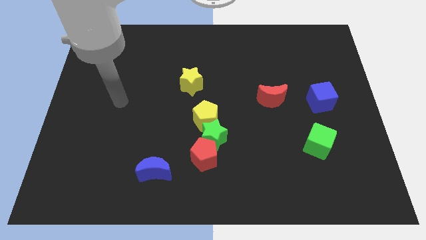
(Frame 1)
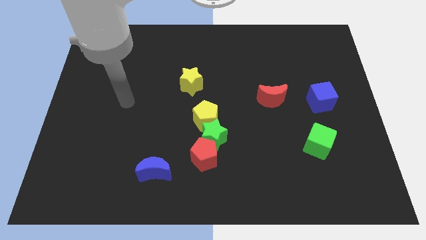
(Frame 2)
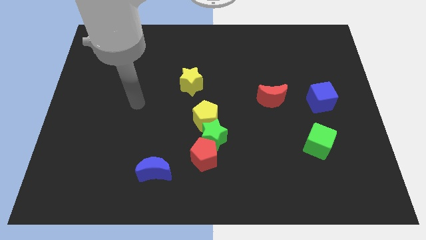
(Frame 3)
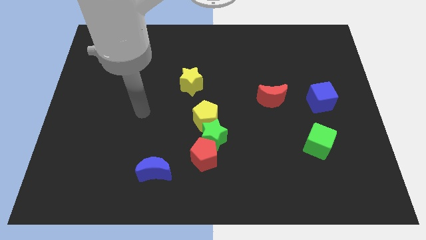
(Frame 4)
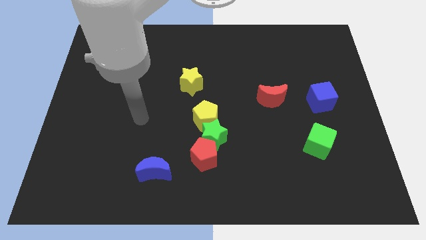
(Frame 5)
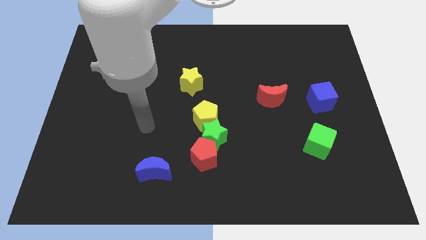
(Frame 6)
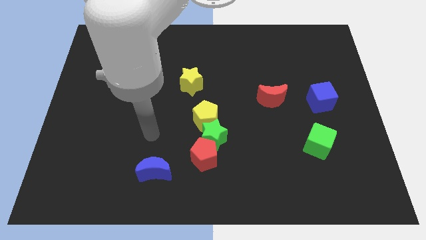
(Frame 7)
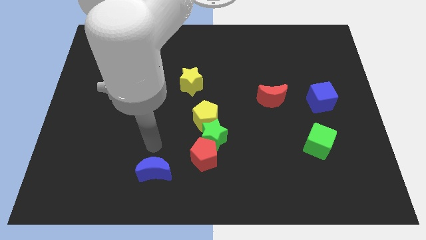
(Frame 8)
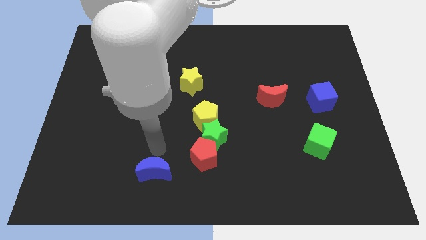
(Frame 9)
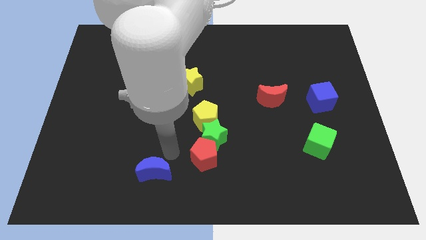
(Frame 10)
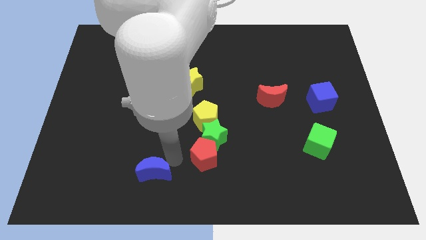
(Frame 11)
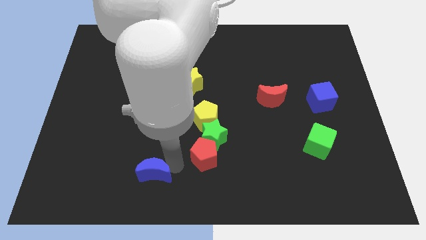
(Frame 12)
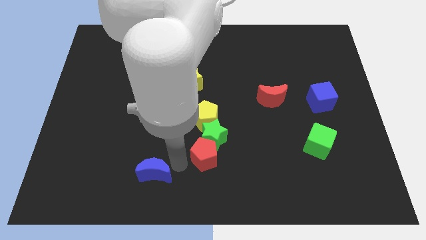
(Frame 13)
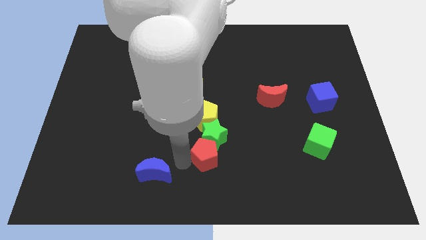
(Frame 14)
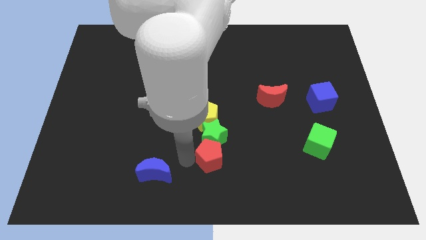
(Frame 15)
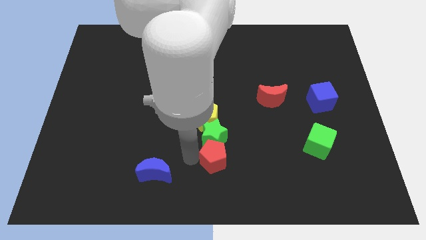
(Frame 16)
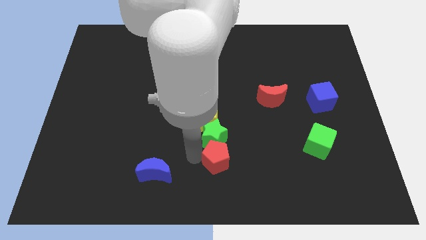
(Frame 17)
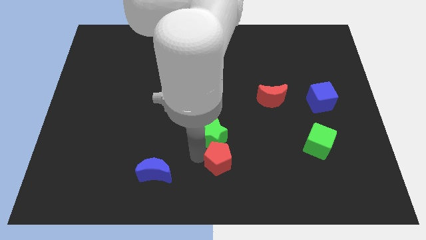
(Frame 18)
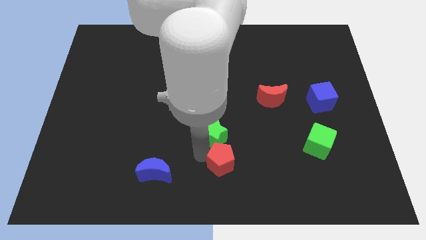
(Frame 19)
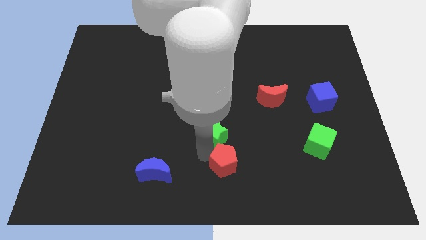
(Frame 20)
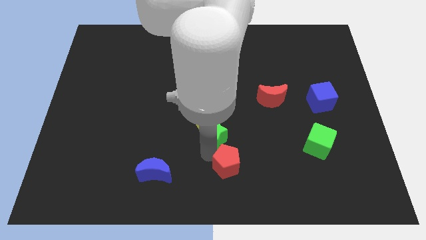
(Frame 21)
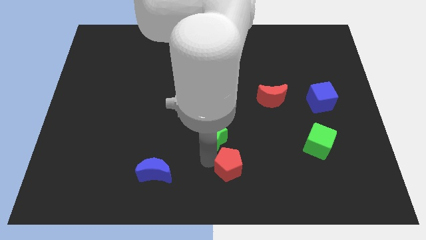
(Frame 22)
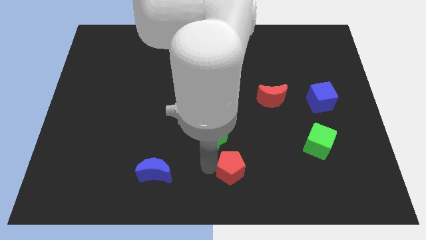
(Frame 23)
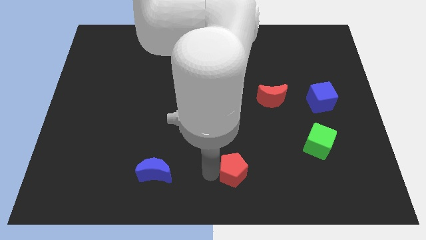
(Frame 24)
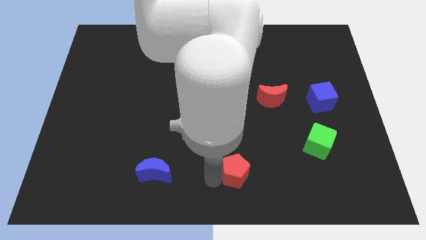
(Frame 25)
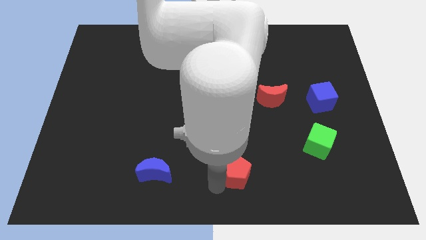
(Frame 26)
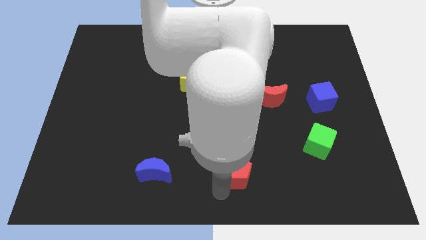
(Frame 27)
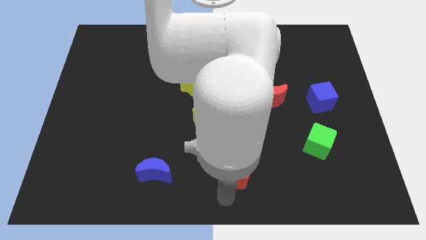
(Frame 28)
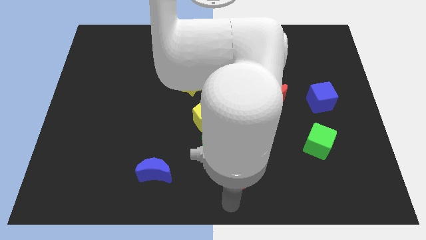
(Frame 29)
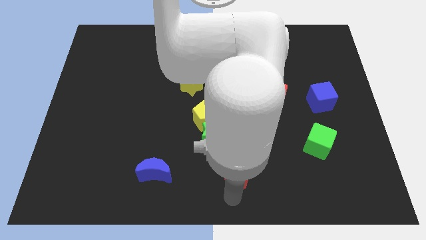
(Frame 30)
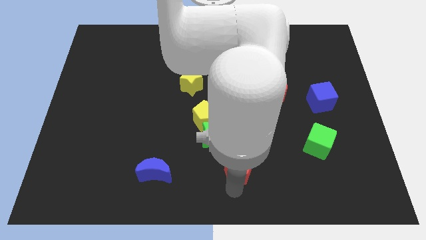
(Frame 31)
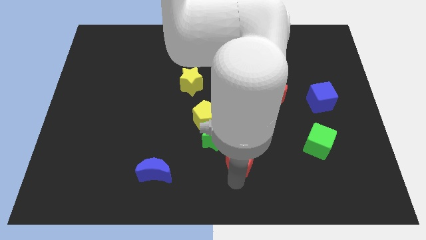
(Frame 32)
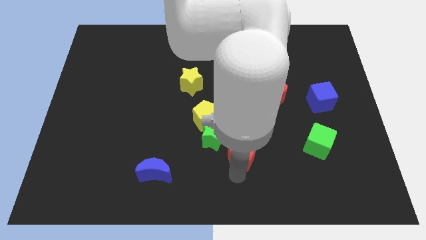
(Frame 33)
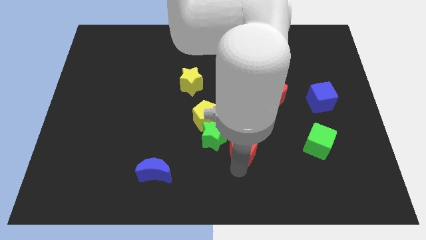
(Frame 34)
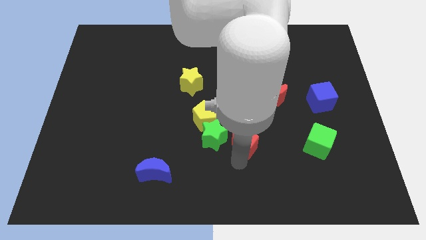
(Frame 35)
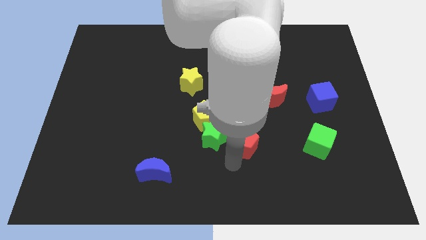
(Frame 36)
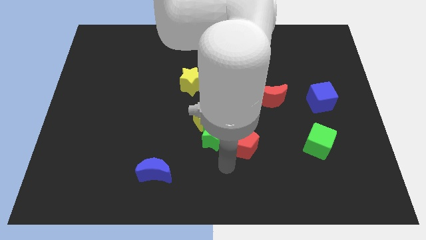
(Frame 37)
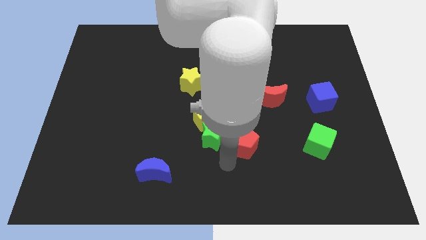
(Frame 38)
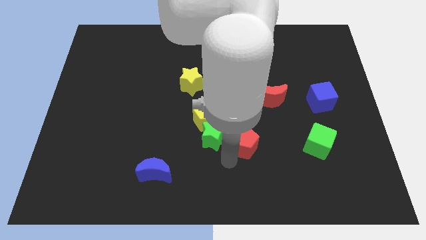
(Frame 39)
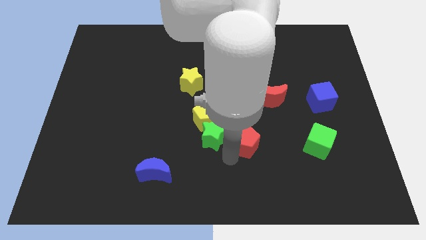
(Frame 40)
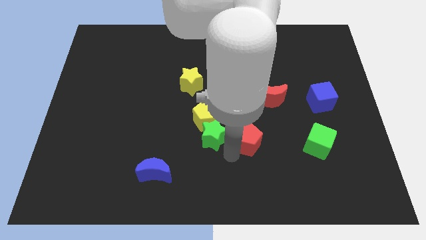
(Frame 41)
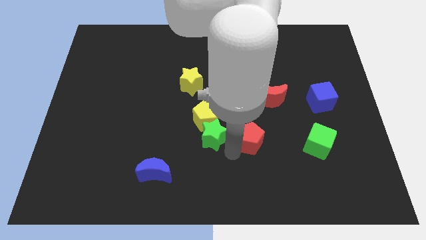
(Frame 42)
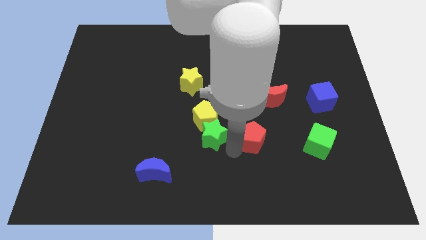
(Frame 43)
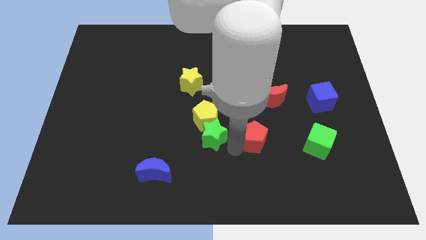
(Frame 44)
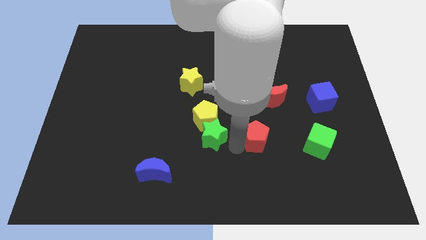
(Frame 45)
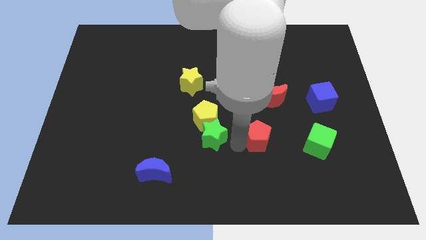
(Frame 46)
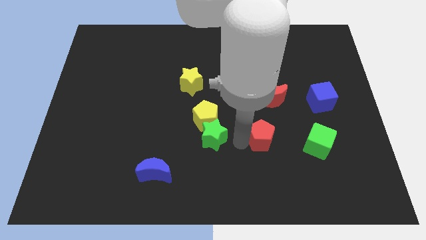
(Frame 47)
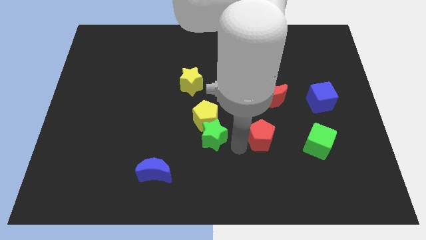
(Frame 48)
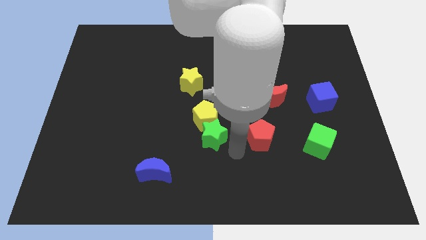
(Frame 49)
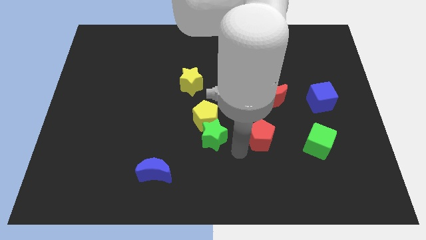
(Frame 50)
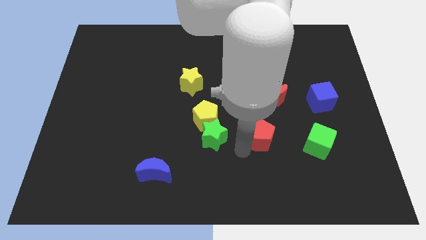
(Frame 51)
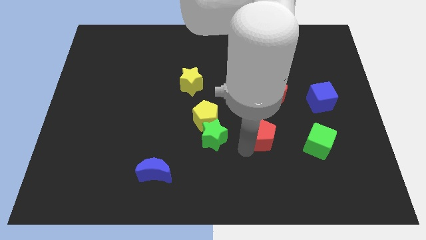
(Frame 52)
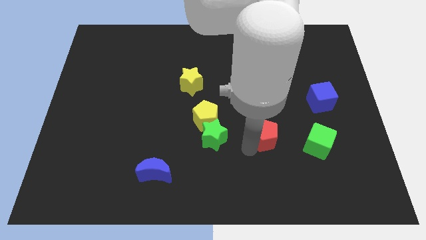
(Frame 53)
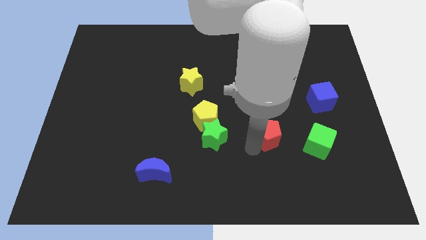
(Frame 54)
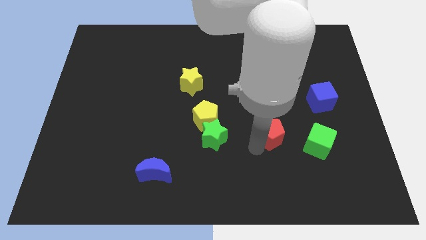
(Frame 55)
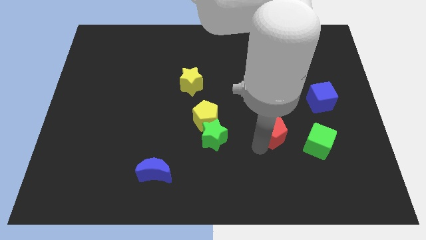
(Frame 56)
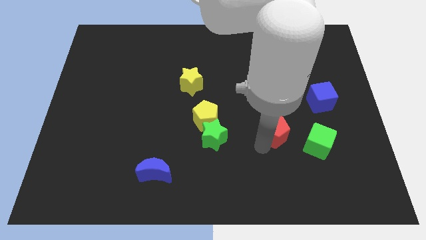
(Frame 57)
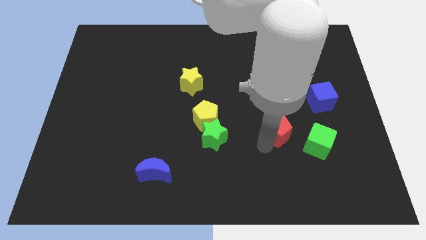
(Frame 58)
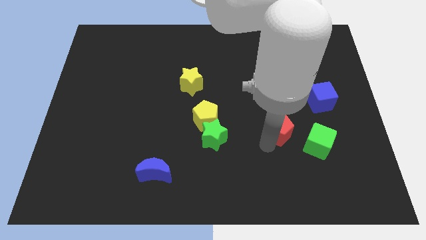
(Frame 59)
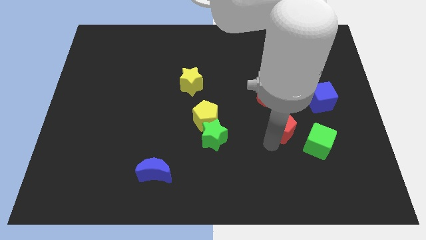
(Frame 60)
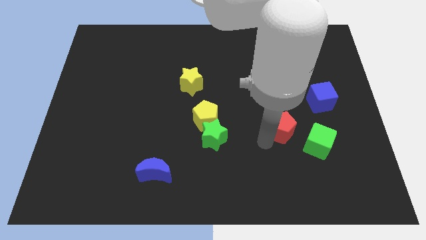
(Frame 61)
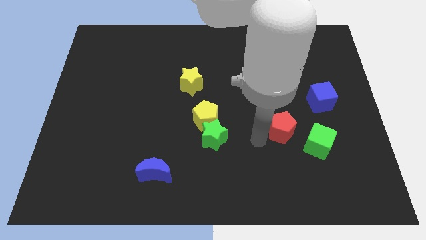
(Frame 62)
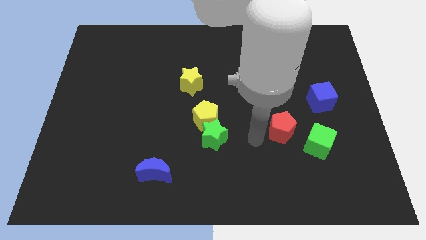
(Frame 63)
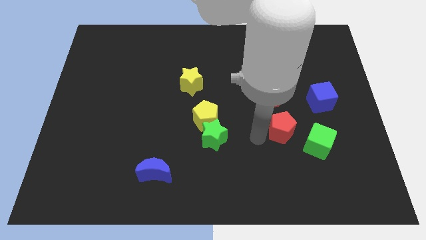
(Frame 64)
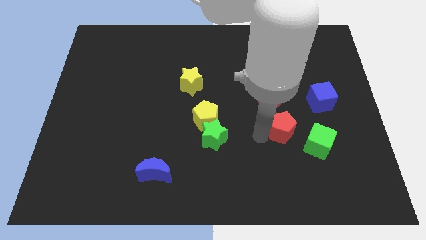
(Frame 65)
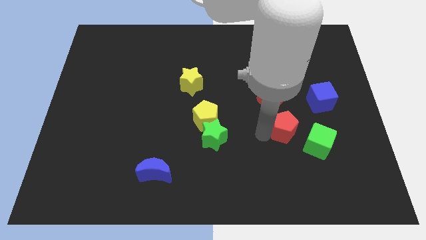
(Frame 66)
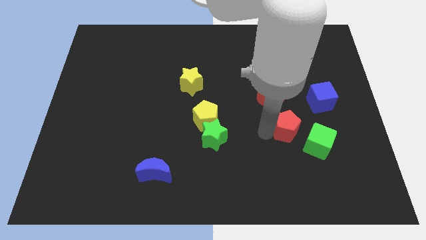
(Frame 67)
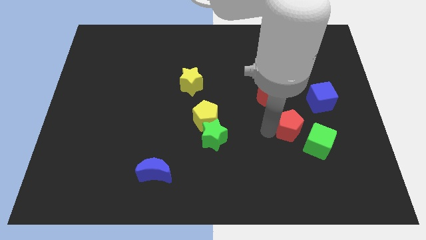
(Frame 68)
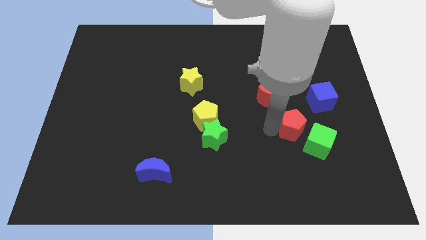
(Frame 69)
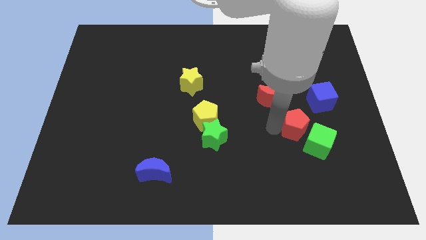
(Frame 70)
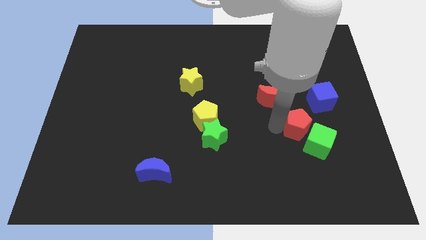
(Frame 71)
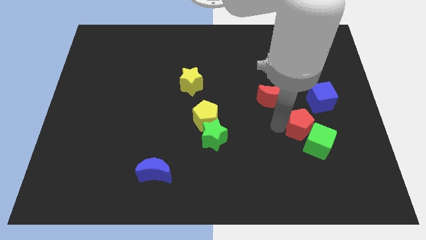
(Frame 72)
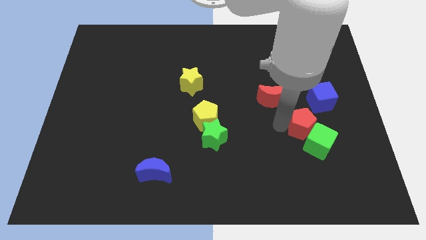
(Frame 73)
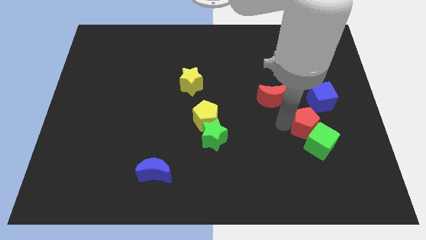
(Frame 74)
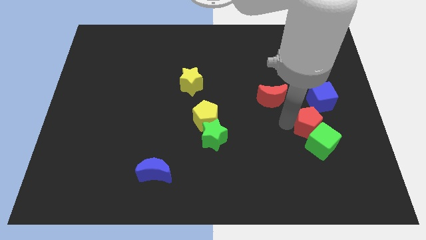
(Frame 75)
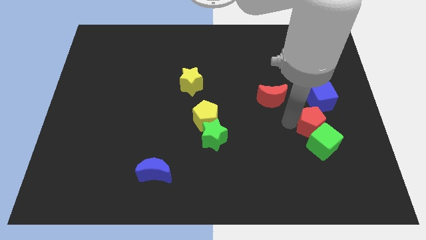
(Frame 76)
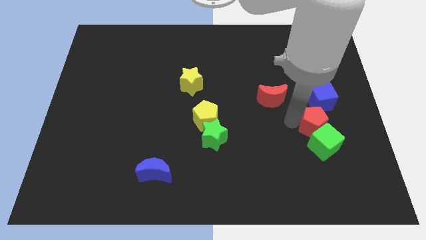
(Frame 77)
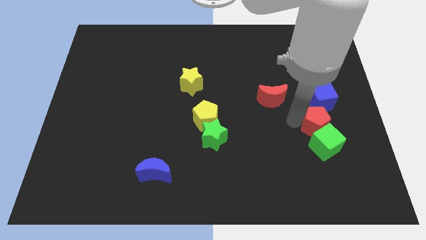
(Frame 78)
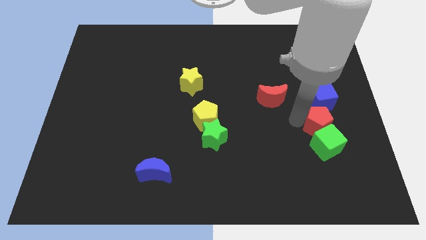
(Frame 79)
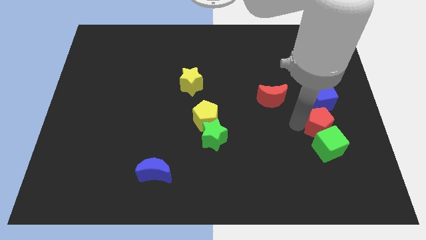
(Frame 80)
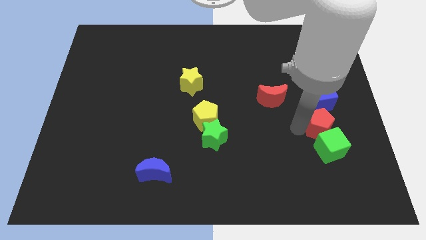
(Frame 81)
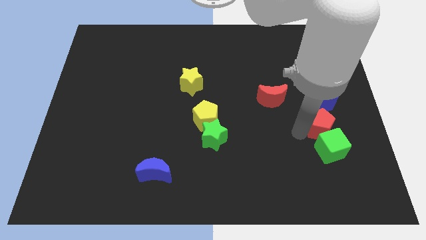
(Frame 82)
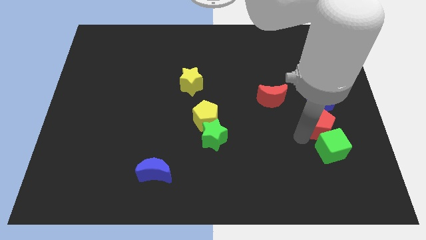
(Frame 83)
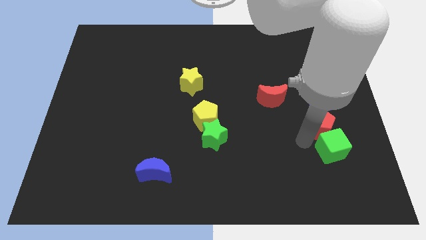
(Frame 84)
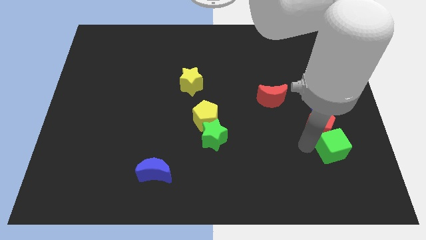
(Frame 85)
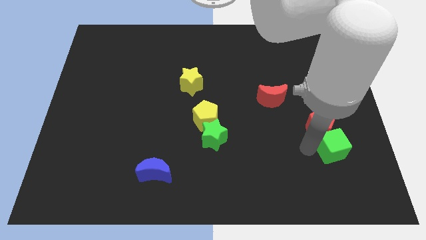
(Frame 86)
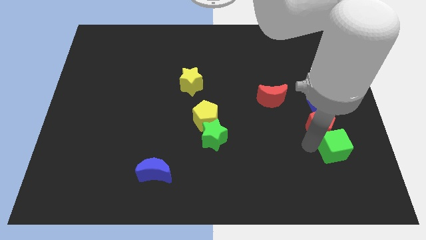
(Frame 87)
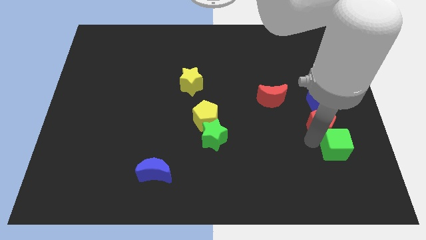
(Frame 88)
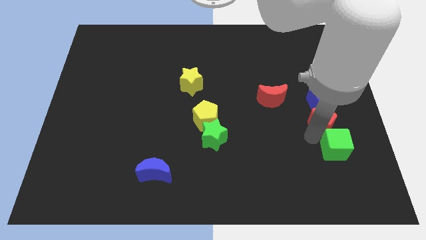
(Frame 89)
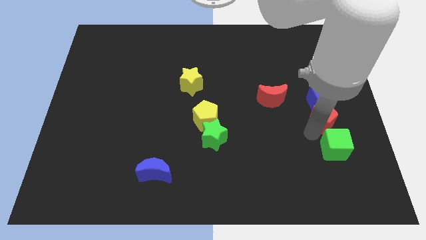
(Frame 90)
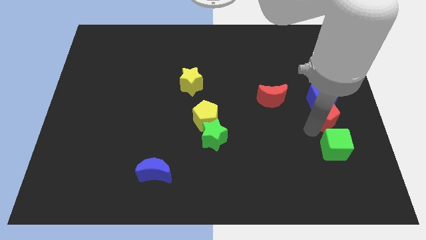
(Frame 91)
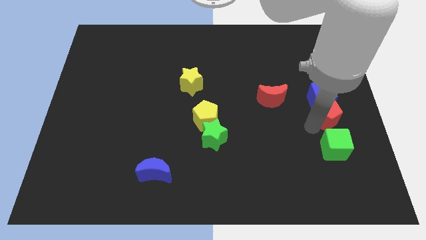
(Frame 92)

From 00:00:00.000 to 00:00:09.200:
put the red pentagon to the center right
